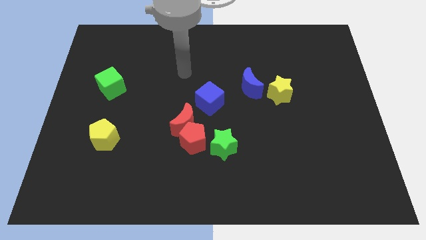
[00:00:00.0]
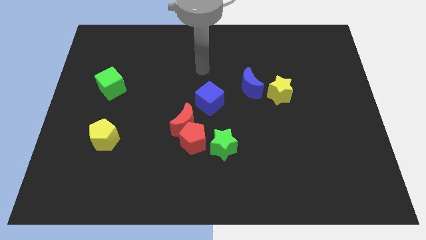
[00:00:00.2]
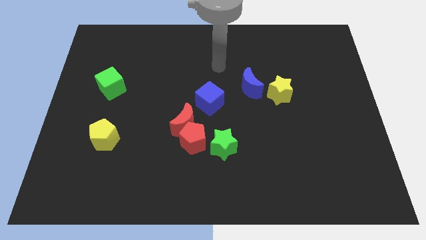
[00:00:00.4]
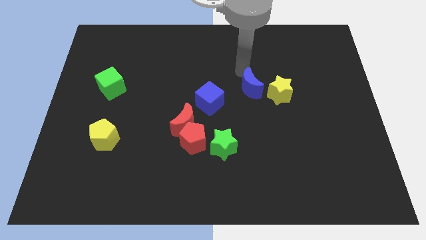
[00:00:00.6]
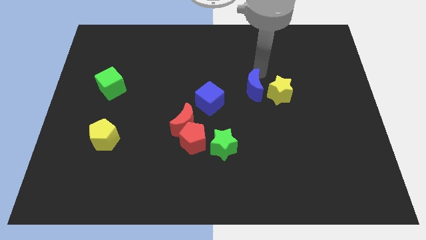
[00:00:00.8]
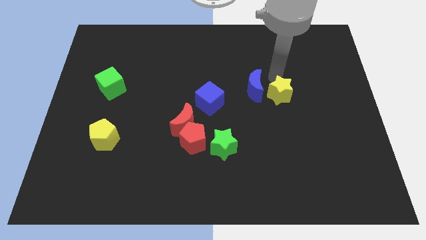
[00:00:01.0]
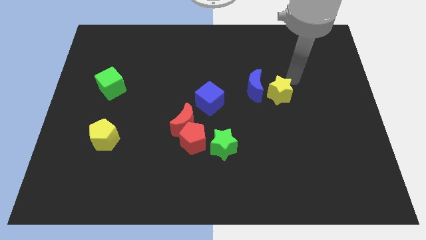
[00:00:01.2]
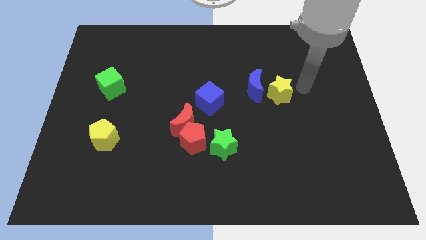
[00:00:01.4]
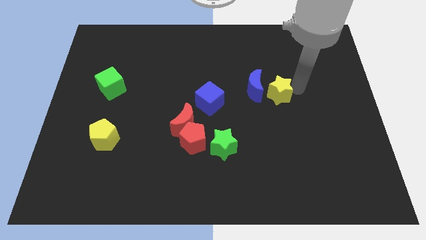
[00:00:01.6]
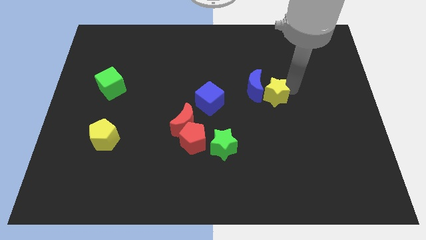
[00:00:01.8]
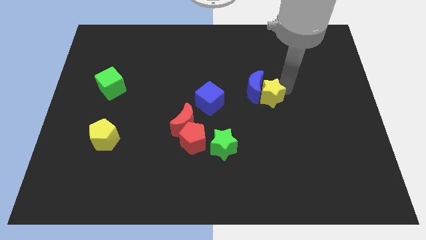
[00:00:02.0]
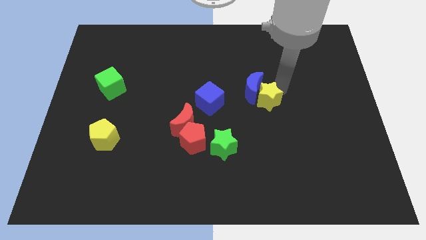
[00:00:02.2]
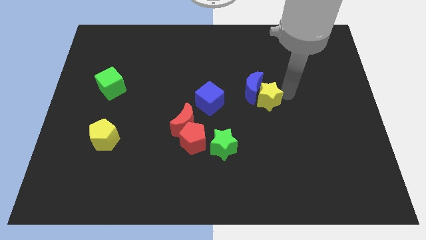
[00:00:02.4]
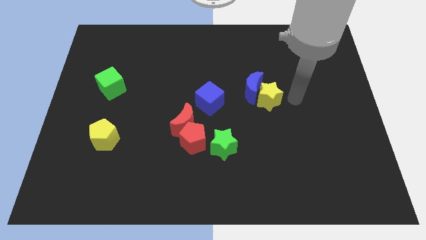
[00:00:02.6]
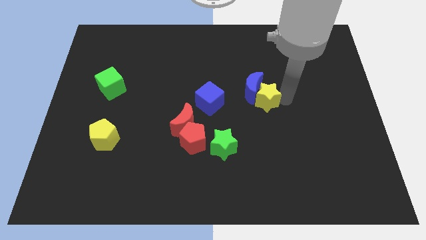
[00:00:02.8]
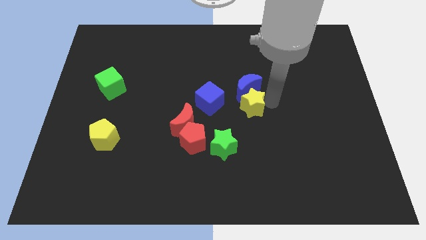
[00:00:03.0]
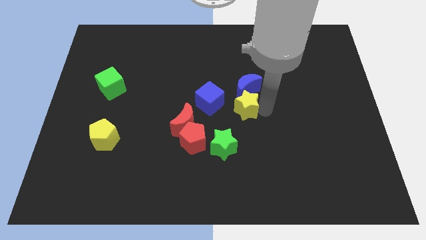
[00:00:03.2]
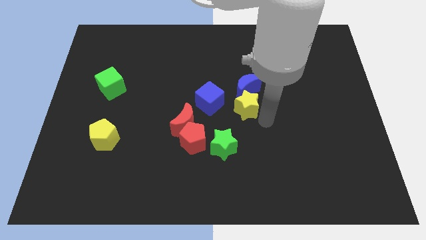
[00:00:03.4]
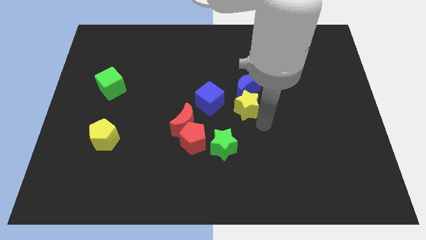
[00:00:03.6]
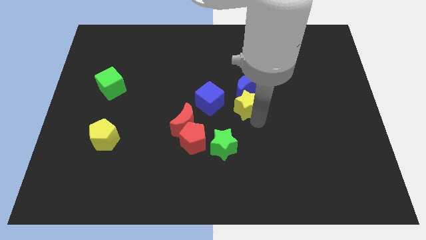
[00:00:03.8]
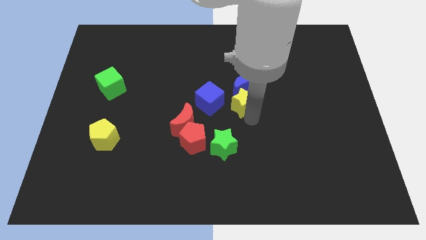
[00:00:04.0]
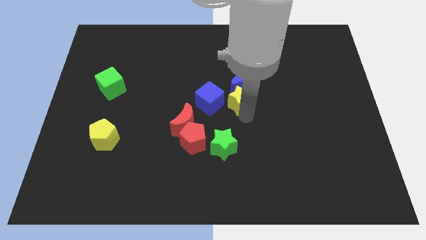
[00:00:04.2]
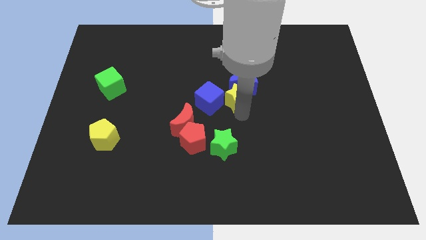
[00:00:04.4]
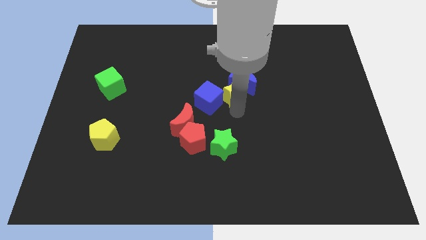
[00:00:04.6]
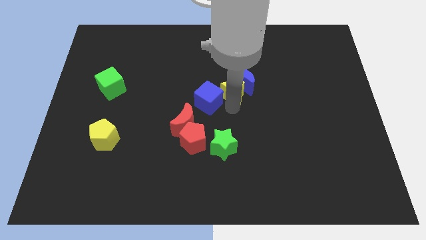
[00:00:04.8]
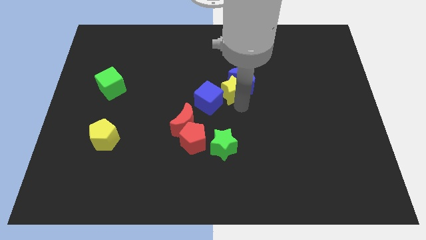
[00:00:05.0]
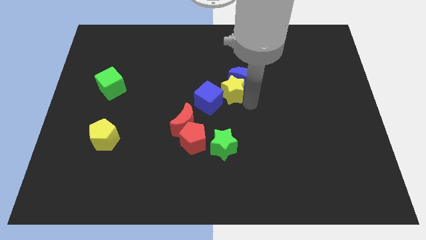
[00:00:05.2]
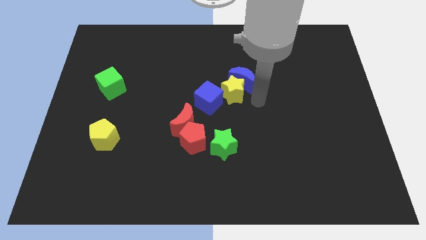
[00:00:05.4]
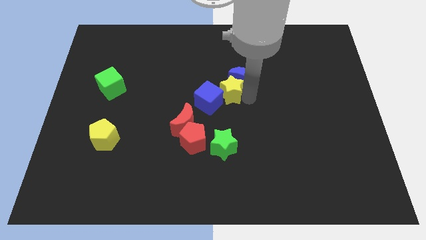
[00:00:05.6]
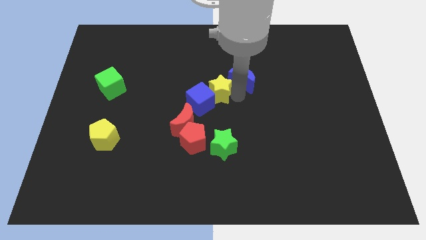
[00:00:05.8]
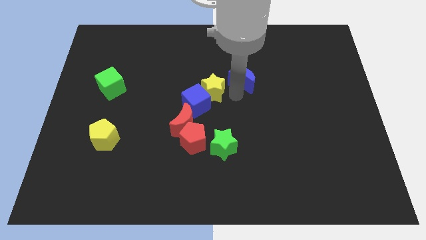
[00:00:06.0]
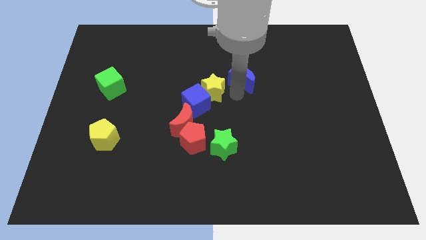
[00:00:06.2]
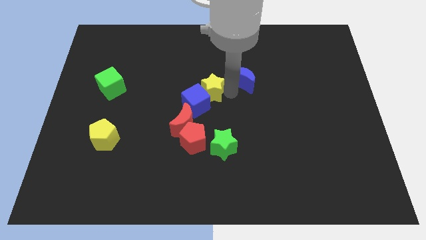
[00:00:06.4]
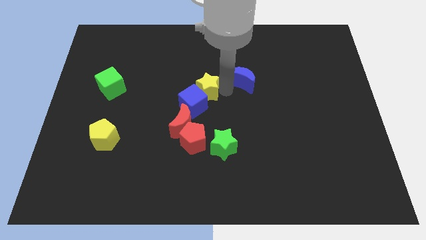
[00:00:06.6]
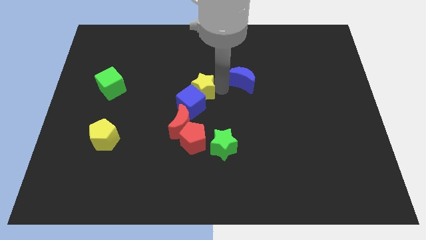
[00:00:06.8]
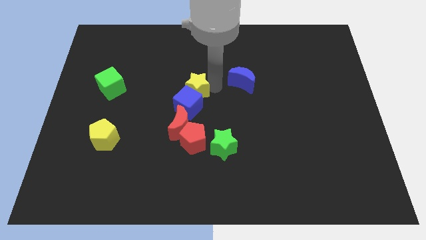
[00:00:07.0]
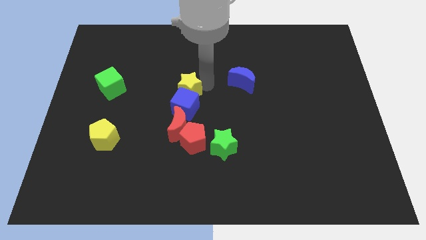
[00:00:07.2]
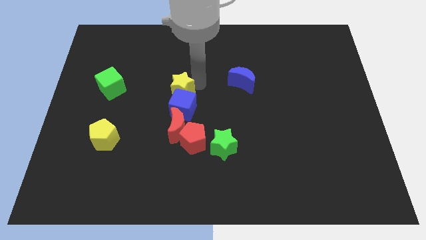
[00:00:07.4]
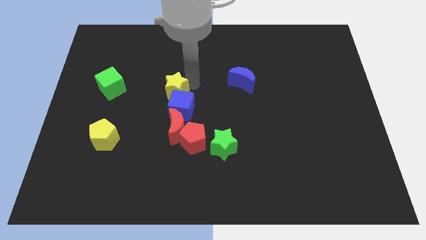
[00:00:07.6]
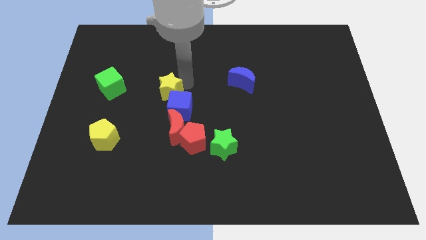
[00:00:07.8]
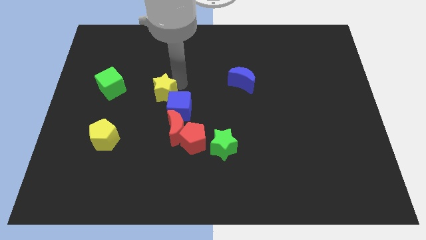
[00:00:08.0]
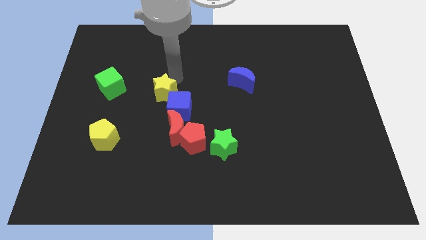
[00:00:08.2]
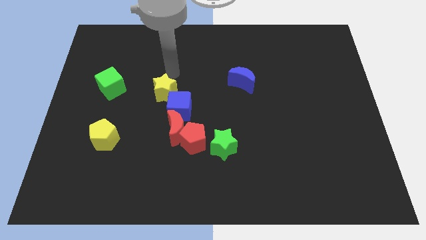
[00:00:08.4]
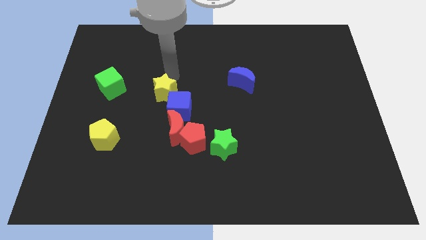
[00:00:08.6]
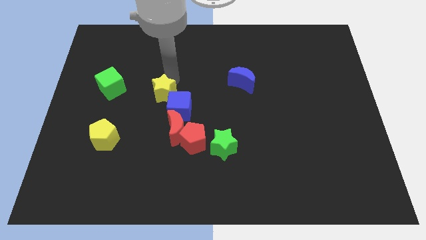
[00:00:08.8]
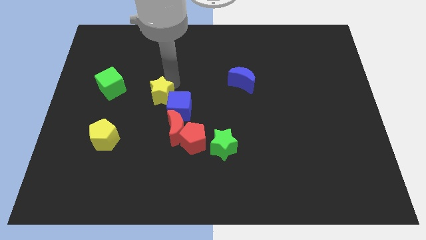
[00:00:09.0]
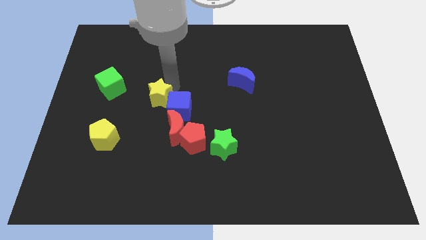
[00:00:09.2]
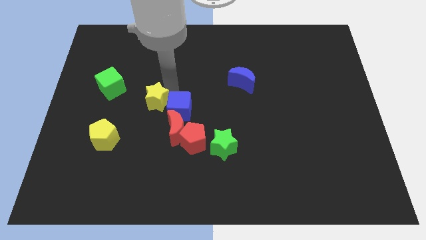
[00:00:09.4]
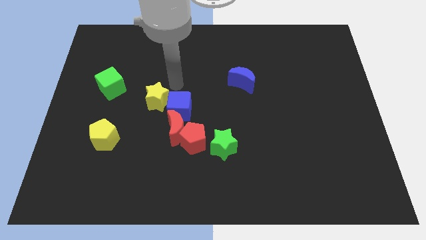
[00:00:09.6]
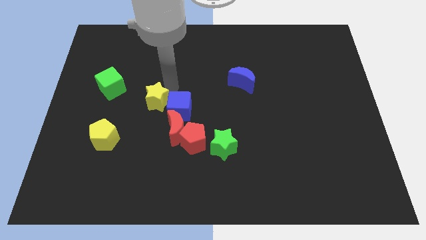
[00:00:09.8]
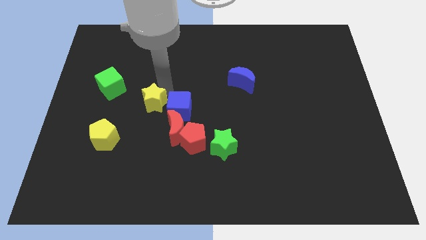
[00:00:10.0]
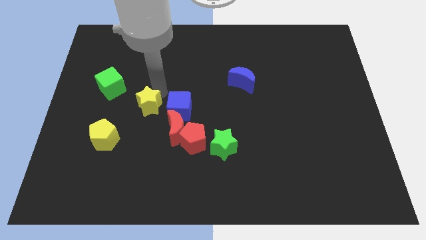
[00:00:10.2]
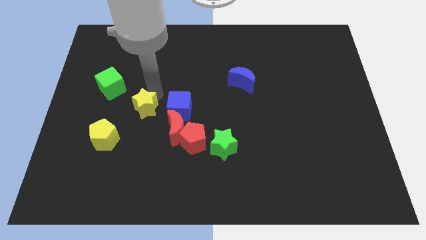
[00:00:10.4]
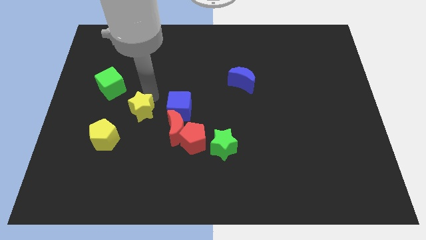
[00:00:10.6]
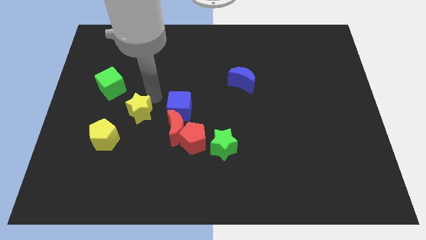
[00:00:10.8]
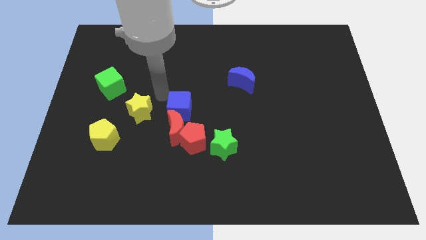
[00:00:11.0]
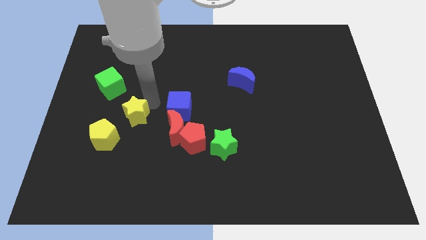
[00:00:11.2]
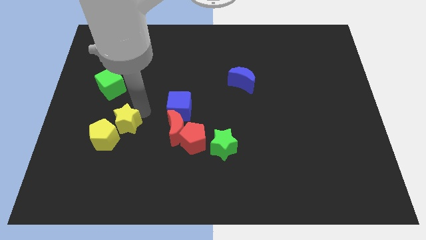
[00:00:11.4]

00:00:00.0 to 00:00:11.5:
slide the yellow star next to the yellow pentagon

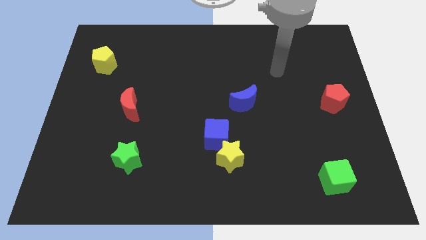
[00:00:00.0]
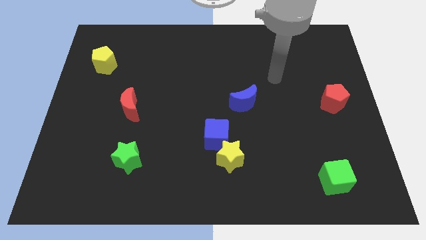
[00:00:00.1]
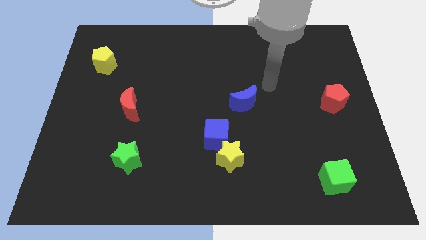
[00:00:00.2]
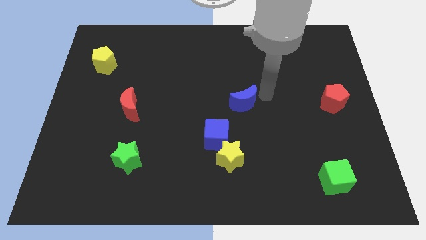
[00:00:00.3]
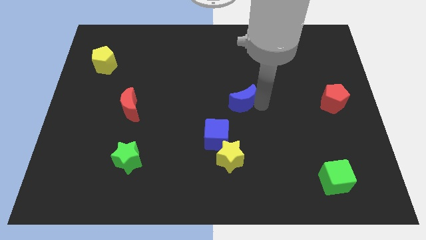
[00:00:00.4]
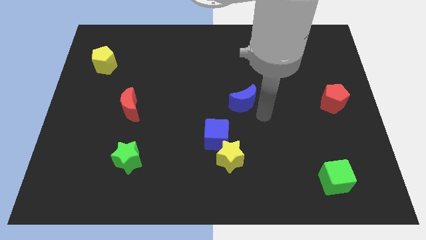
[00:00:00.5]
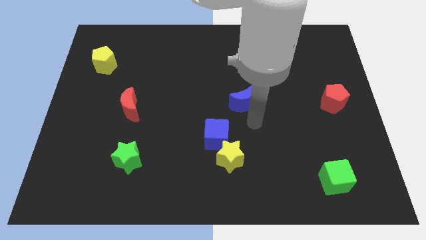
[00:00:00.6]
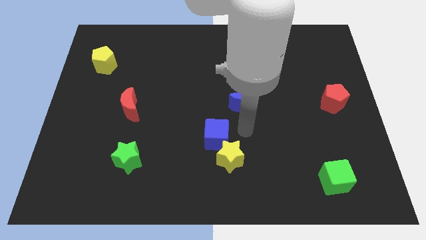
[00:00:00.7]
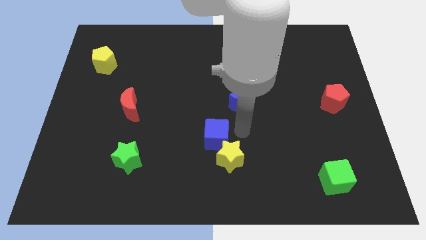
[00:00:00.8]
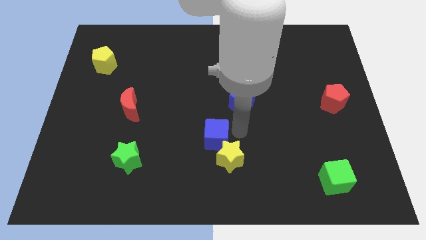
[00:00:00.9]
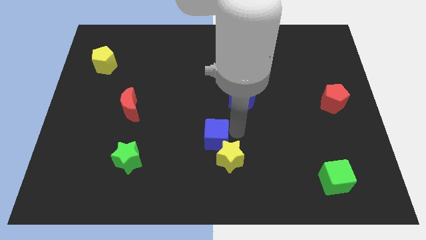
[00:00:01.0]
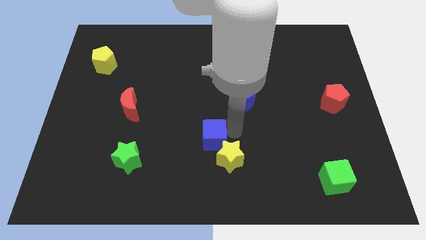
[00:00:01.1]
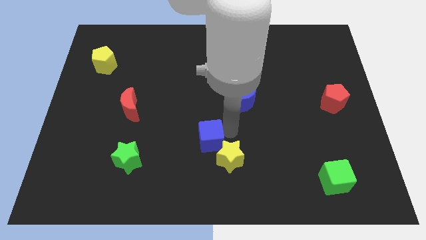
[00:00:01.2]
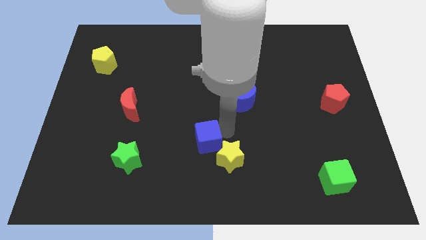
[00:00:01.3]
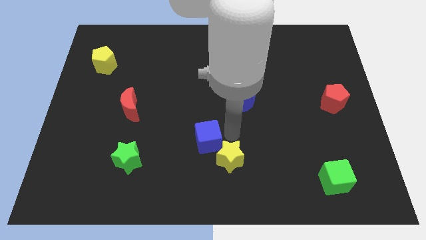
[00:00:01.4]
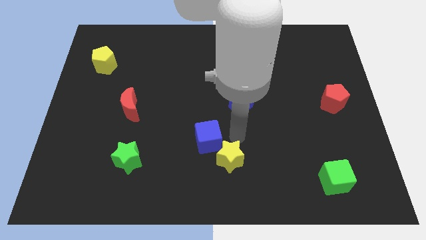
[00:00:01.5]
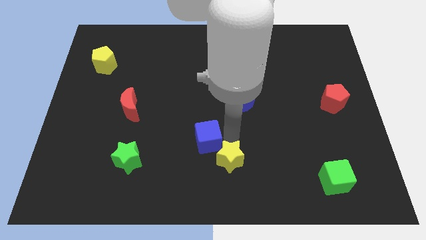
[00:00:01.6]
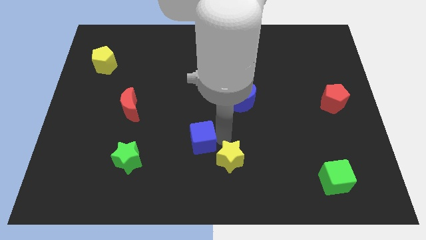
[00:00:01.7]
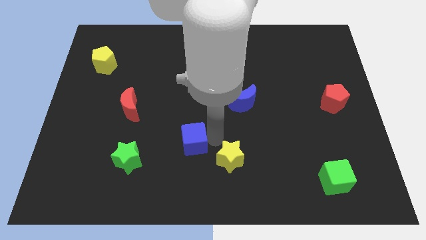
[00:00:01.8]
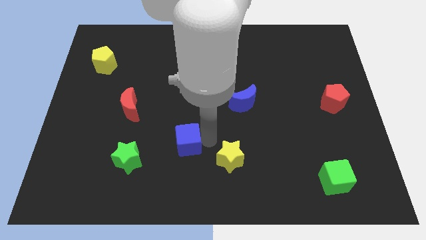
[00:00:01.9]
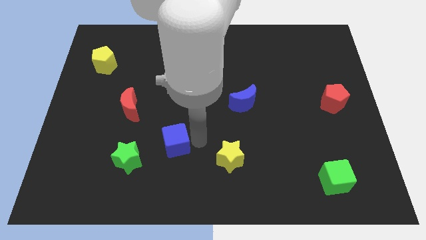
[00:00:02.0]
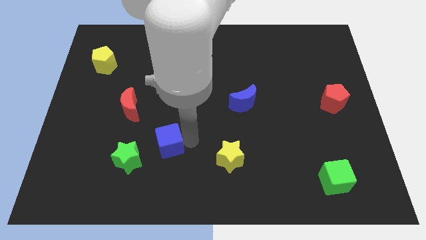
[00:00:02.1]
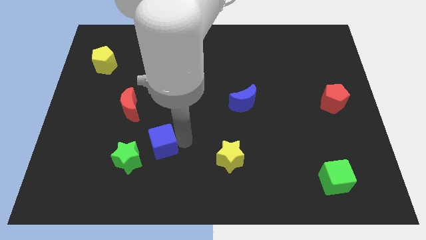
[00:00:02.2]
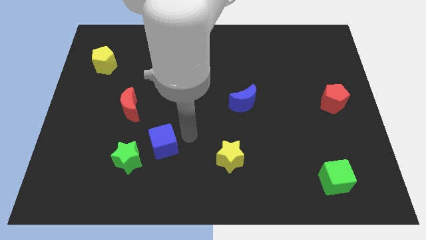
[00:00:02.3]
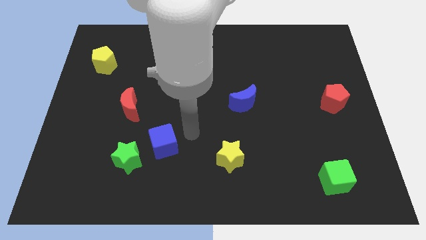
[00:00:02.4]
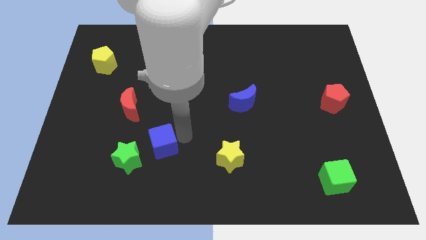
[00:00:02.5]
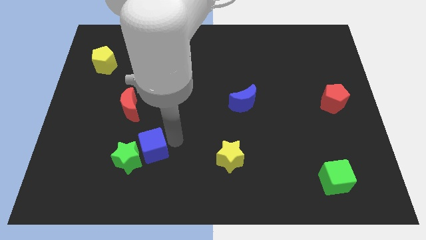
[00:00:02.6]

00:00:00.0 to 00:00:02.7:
slide the blue cube next to the green star
